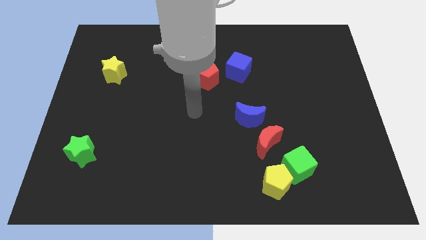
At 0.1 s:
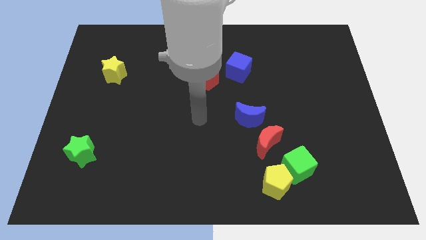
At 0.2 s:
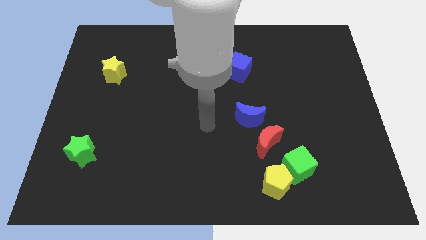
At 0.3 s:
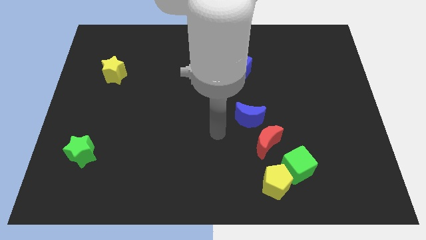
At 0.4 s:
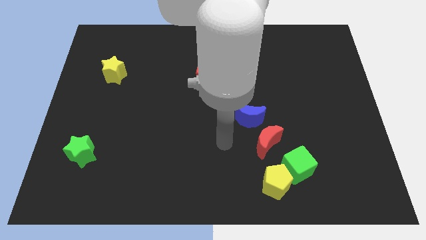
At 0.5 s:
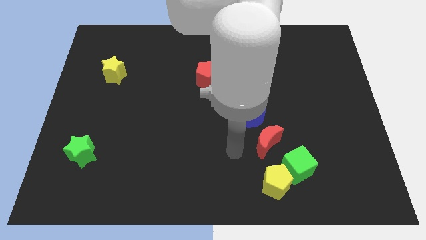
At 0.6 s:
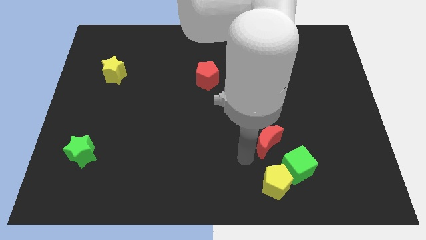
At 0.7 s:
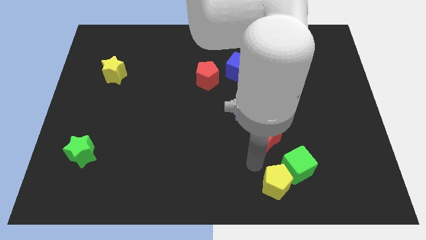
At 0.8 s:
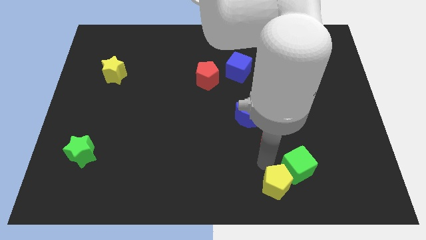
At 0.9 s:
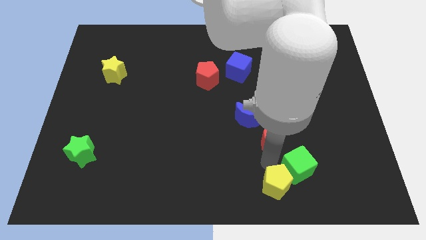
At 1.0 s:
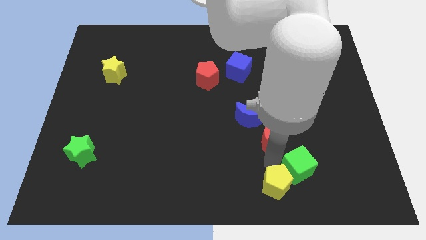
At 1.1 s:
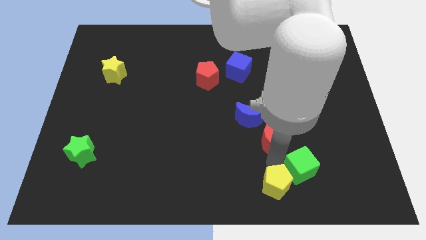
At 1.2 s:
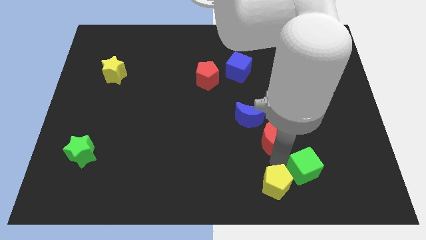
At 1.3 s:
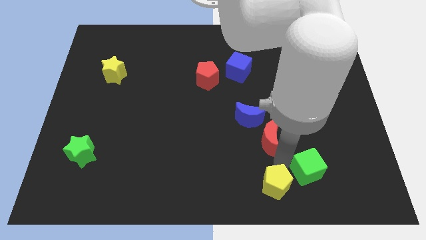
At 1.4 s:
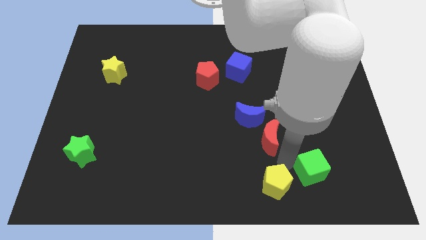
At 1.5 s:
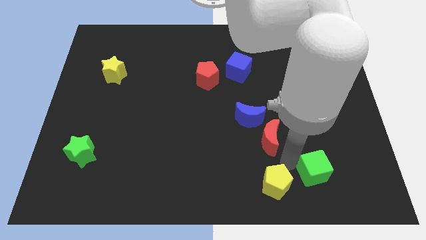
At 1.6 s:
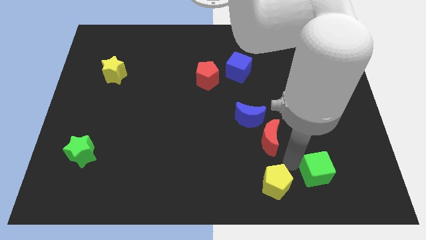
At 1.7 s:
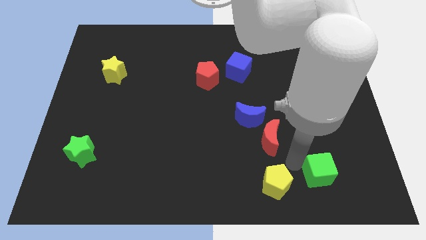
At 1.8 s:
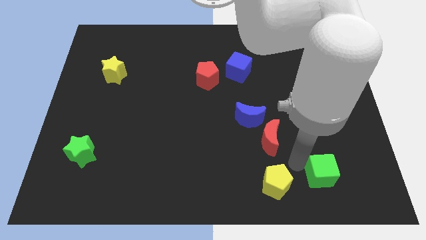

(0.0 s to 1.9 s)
move the green cube away from the yellow pentagon and red moon

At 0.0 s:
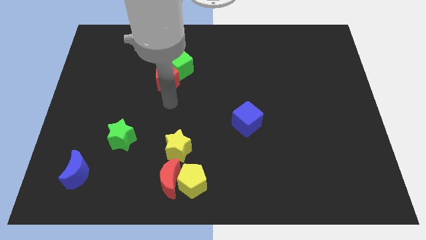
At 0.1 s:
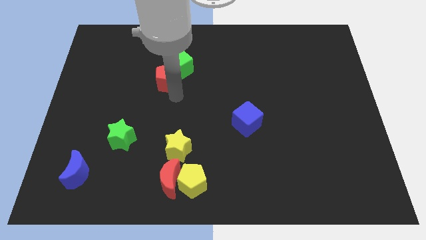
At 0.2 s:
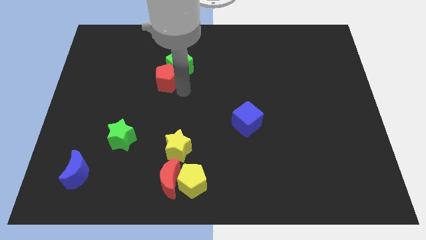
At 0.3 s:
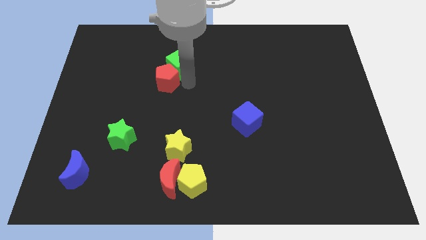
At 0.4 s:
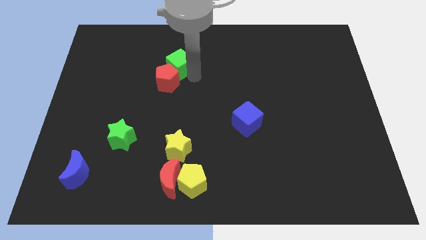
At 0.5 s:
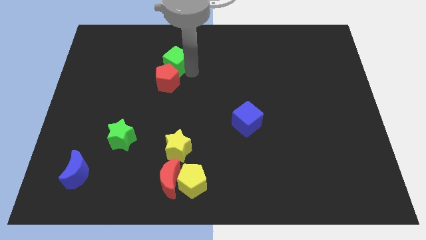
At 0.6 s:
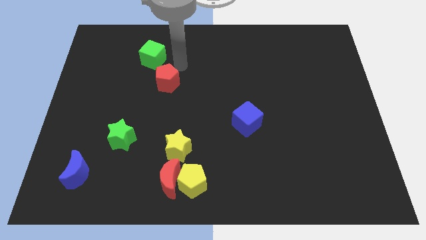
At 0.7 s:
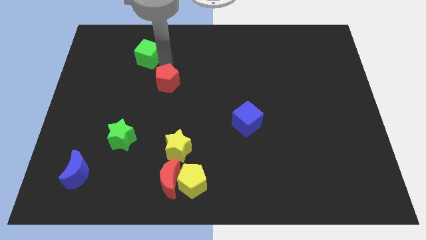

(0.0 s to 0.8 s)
pull the red pentagon apart from the green cube

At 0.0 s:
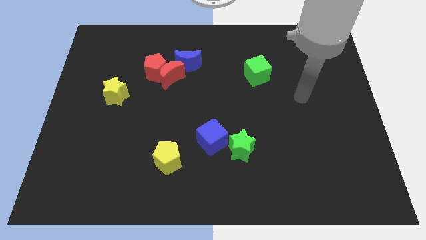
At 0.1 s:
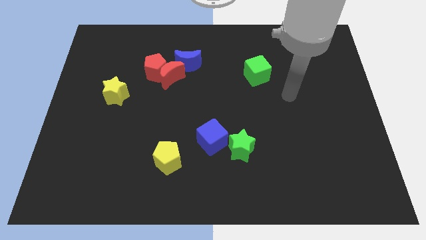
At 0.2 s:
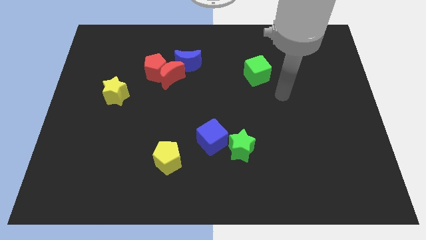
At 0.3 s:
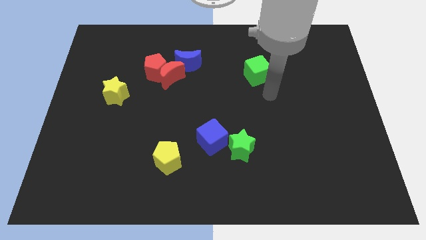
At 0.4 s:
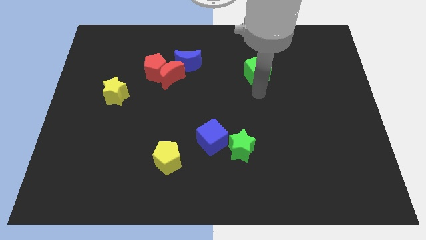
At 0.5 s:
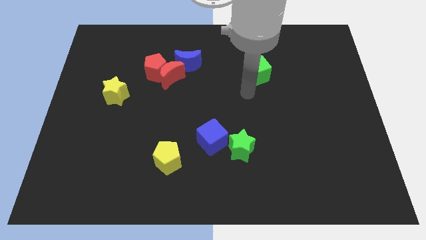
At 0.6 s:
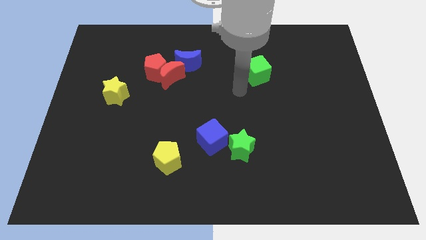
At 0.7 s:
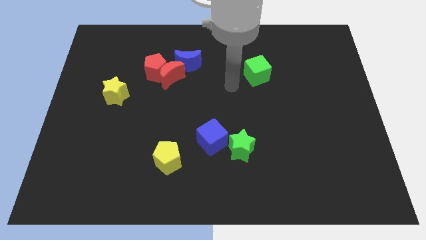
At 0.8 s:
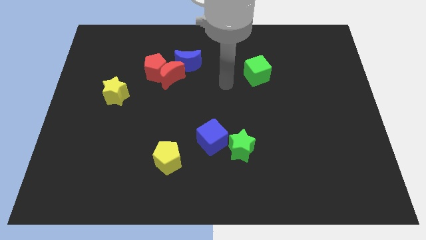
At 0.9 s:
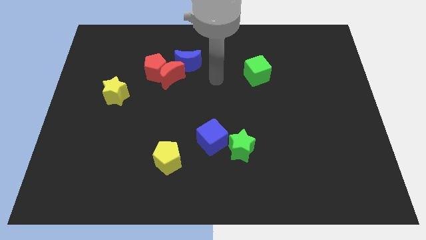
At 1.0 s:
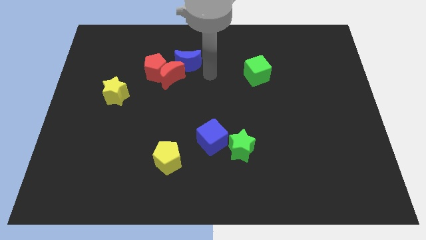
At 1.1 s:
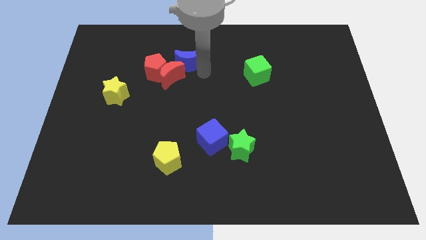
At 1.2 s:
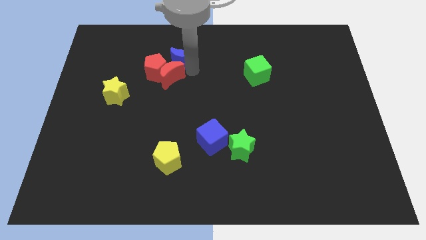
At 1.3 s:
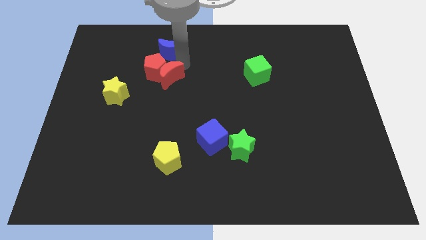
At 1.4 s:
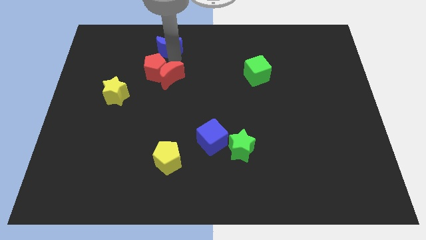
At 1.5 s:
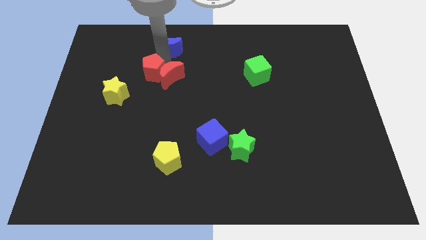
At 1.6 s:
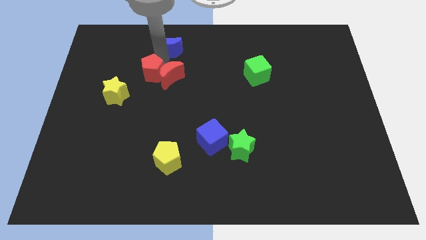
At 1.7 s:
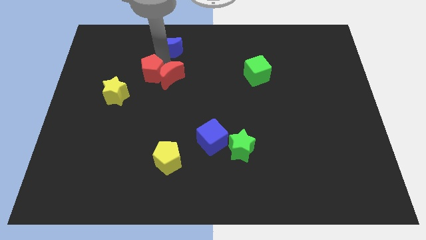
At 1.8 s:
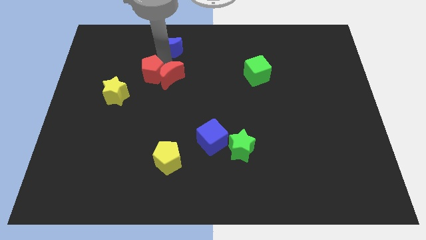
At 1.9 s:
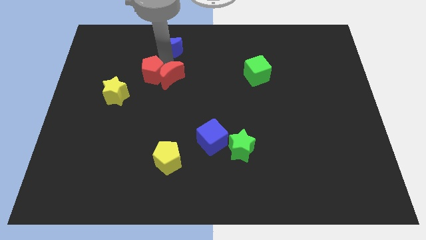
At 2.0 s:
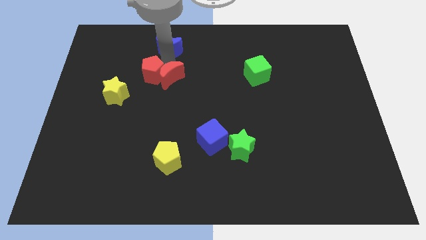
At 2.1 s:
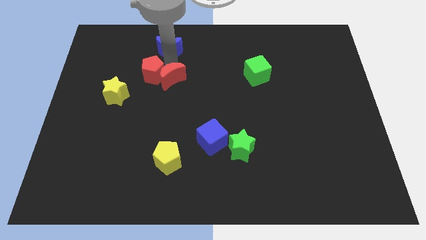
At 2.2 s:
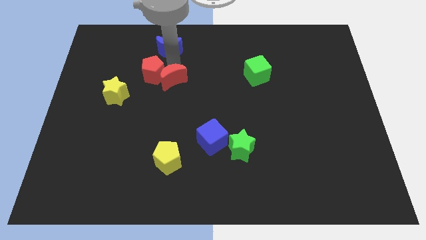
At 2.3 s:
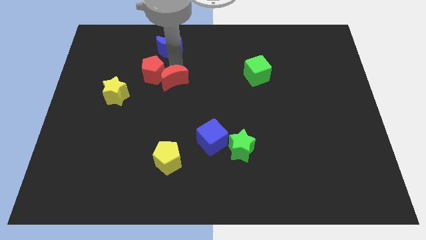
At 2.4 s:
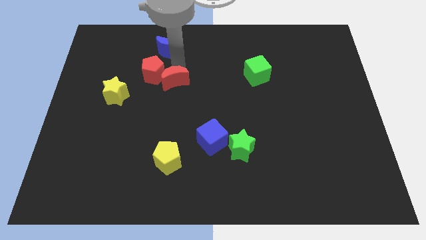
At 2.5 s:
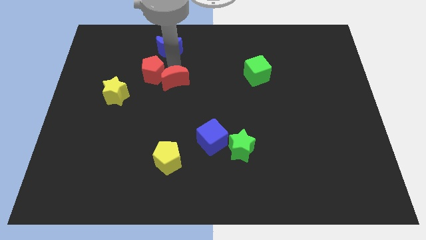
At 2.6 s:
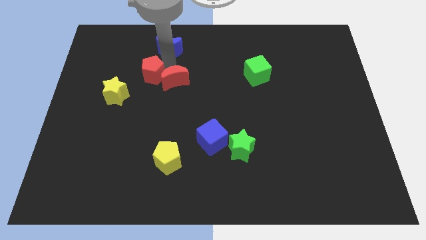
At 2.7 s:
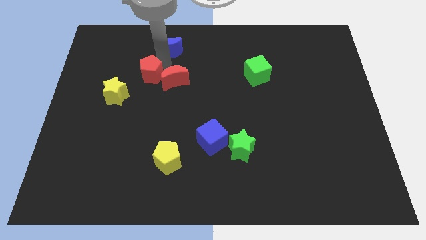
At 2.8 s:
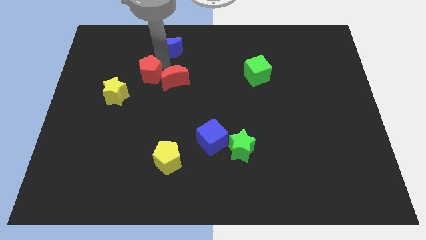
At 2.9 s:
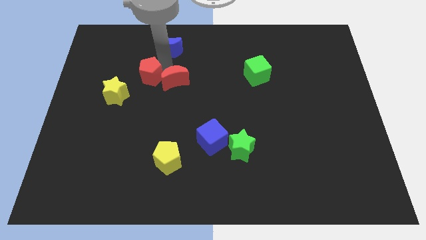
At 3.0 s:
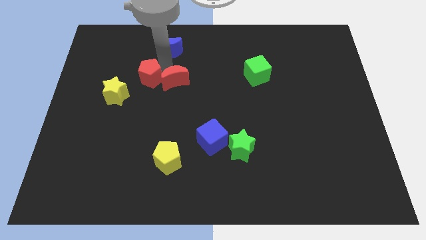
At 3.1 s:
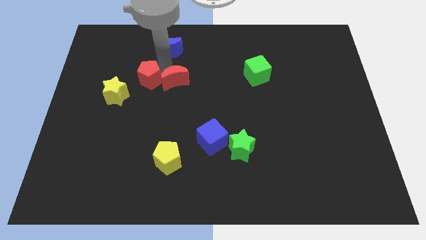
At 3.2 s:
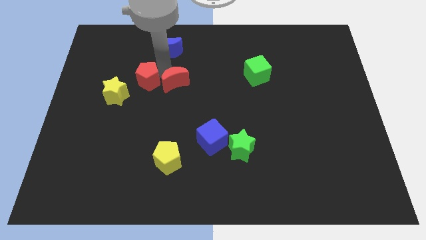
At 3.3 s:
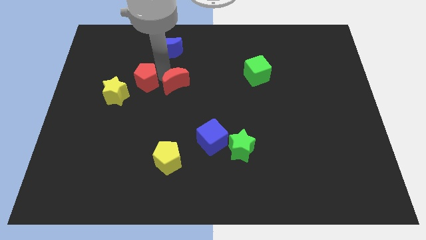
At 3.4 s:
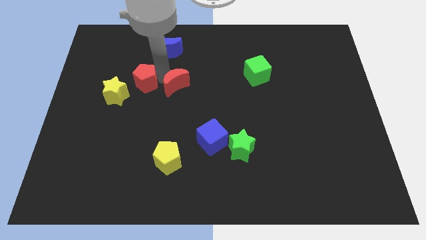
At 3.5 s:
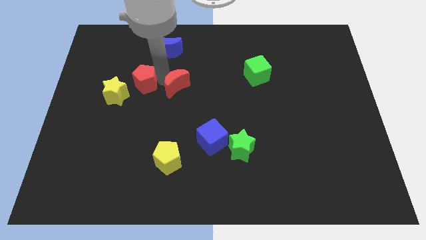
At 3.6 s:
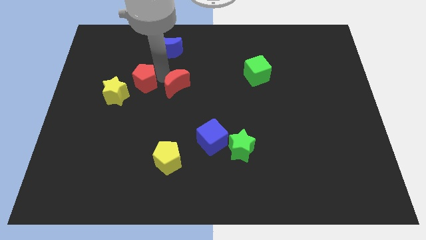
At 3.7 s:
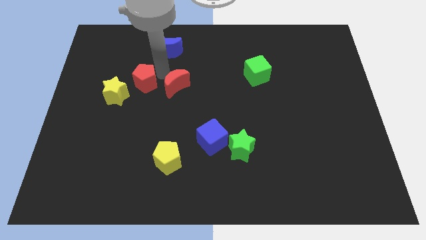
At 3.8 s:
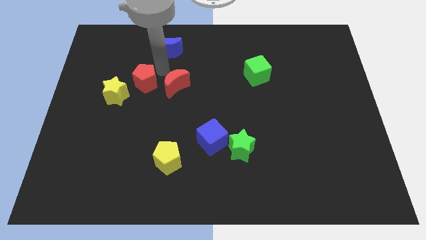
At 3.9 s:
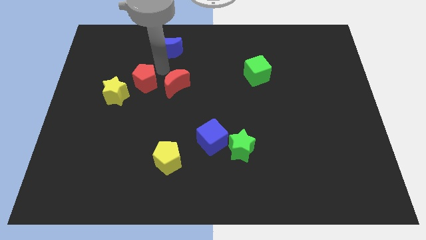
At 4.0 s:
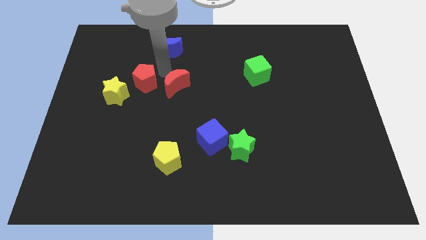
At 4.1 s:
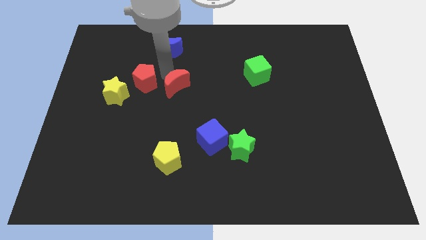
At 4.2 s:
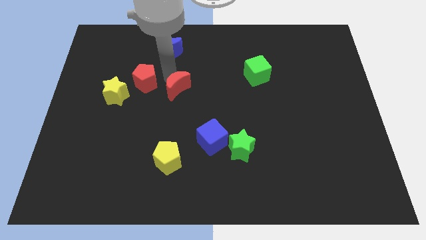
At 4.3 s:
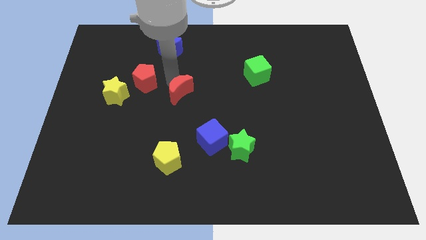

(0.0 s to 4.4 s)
move the red moon away from the red pentagon and blue moon

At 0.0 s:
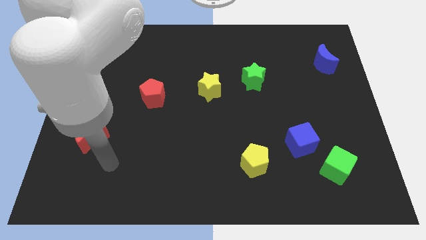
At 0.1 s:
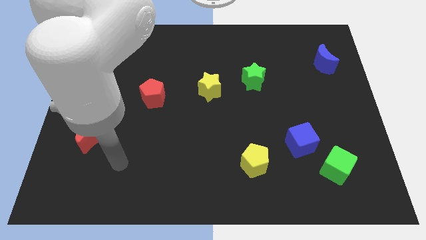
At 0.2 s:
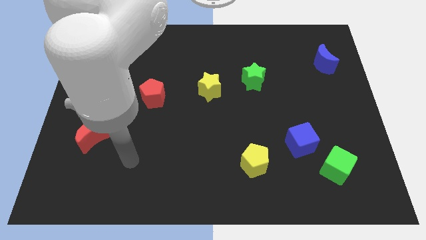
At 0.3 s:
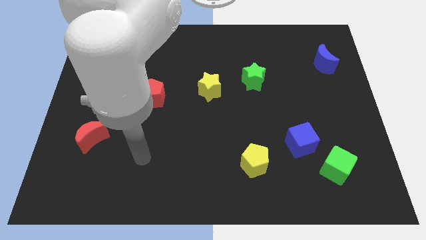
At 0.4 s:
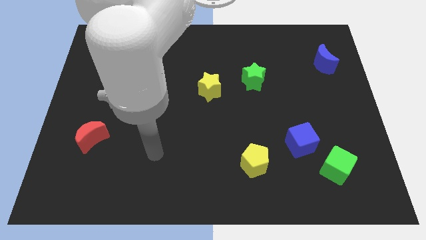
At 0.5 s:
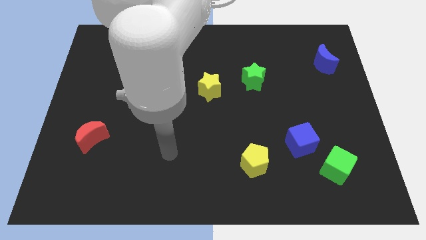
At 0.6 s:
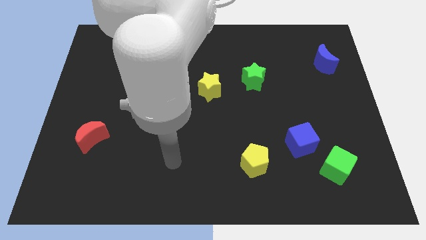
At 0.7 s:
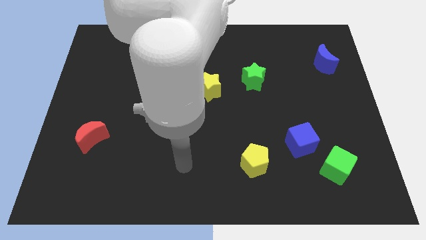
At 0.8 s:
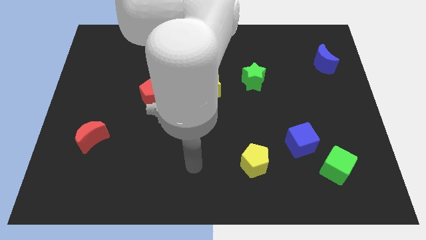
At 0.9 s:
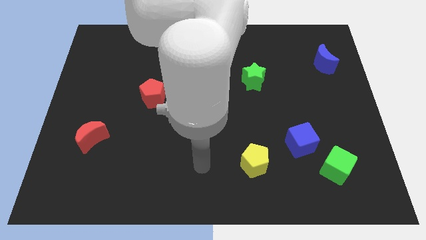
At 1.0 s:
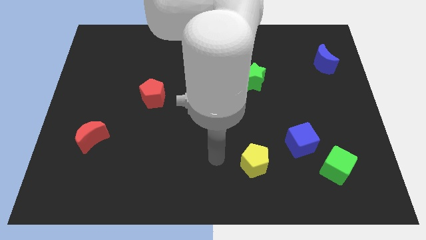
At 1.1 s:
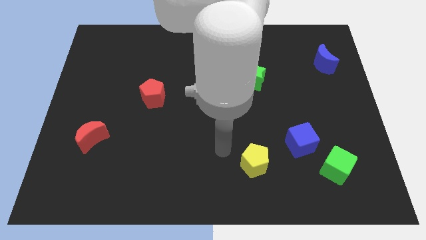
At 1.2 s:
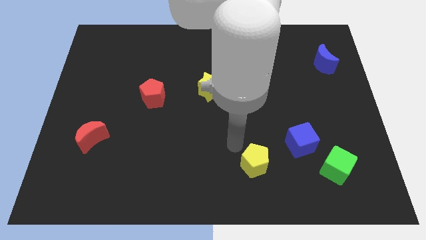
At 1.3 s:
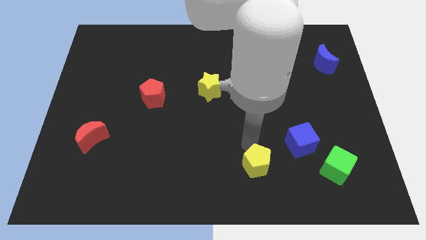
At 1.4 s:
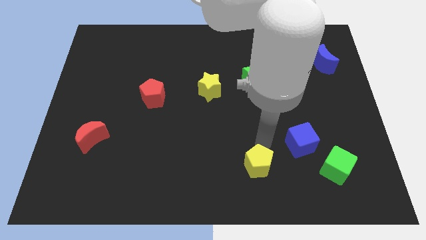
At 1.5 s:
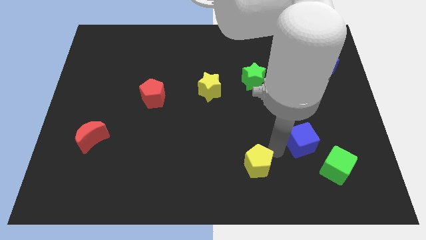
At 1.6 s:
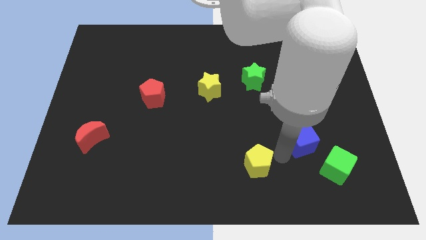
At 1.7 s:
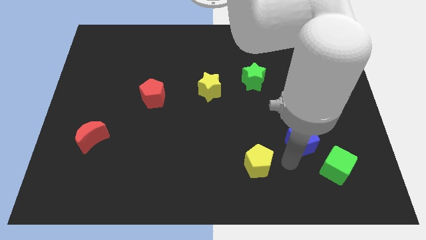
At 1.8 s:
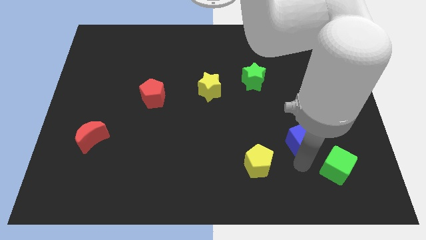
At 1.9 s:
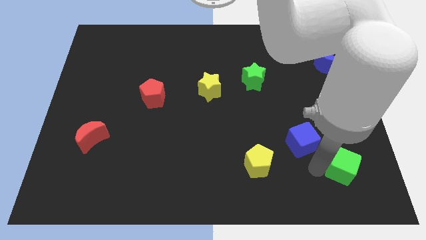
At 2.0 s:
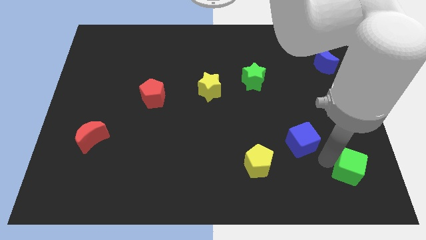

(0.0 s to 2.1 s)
pull the blue cube apart from the green cube

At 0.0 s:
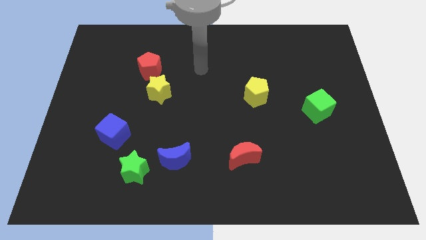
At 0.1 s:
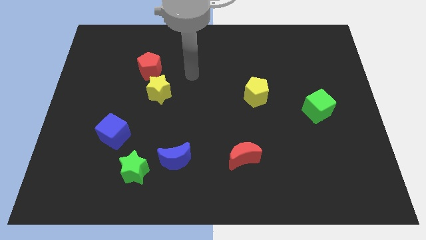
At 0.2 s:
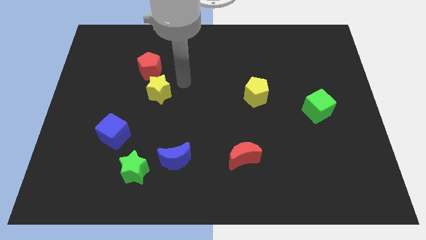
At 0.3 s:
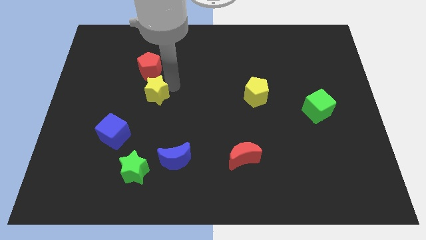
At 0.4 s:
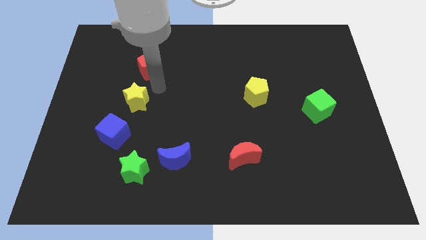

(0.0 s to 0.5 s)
separate the red pentagon from the yellow star
